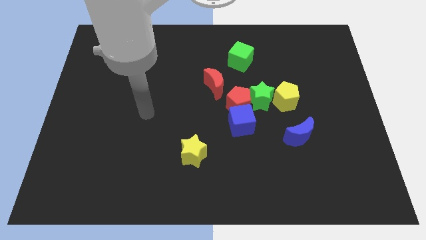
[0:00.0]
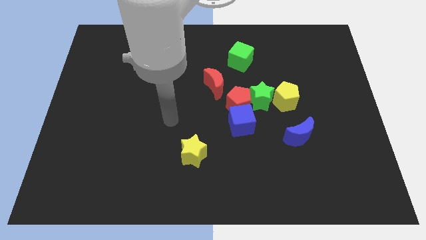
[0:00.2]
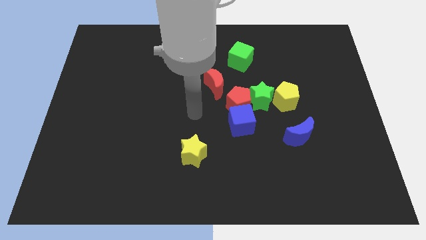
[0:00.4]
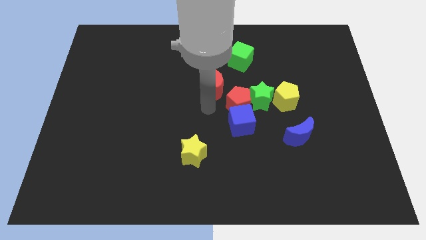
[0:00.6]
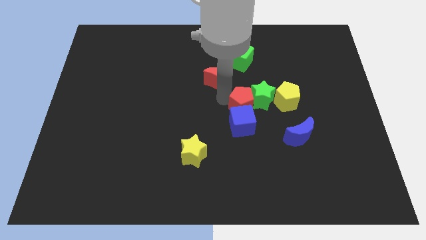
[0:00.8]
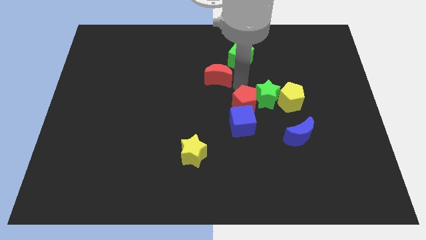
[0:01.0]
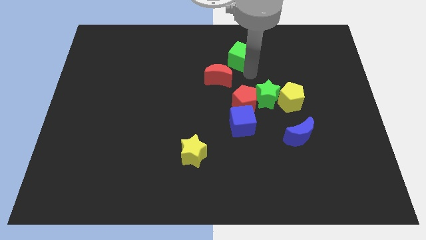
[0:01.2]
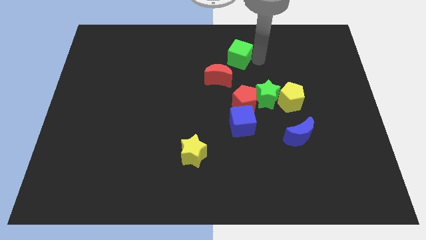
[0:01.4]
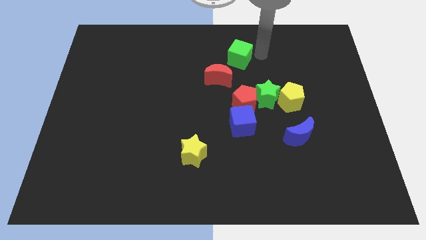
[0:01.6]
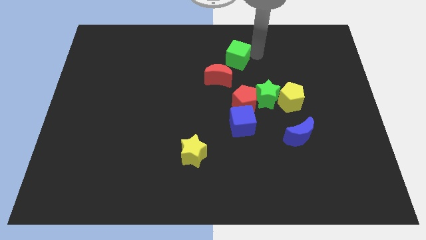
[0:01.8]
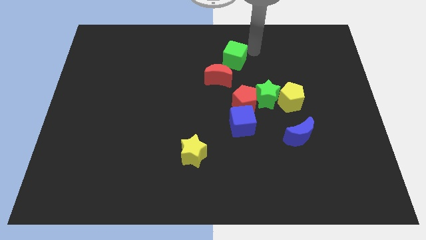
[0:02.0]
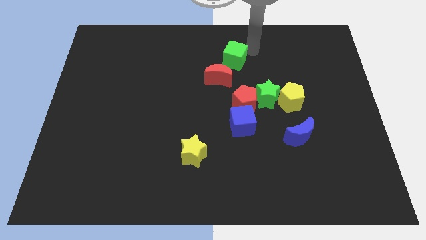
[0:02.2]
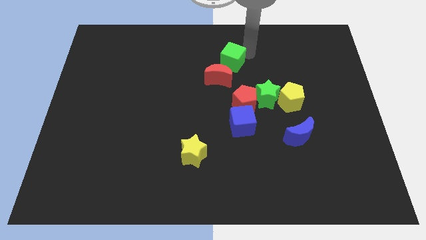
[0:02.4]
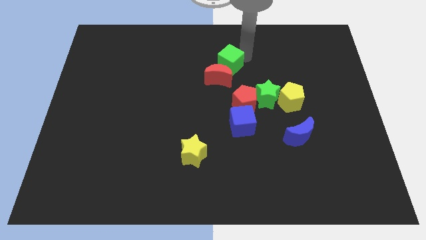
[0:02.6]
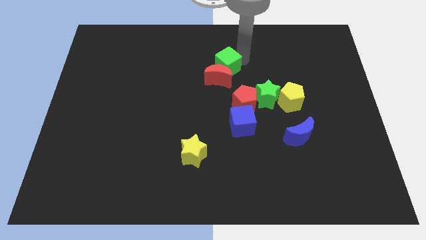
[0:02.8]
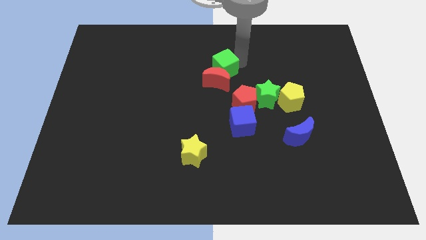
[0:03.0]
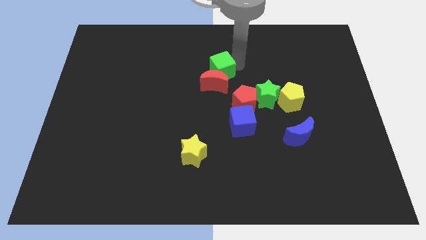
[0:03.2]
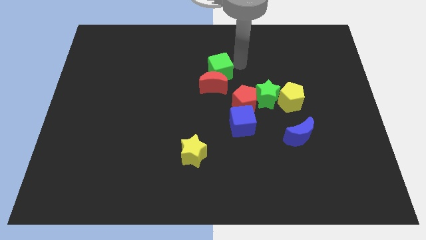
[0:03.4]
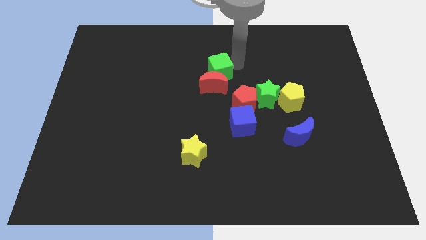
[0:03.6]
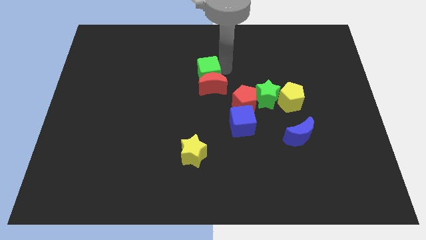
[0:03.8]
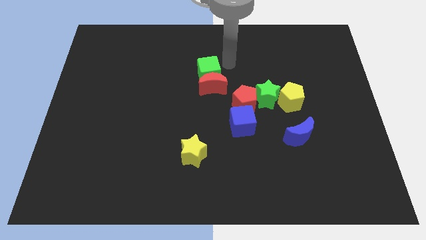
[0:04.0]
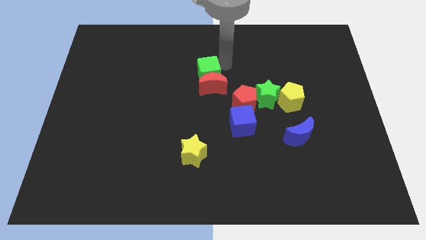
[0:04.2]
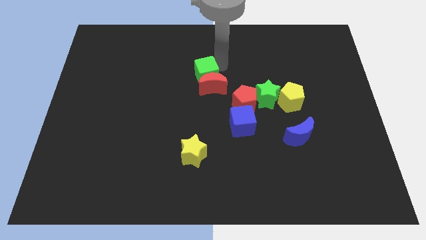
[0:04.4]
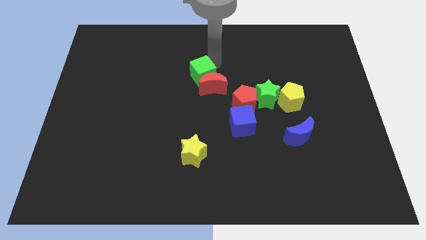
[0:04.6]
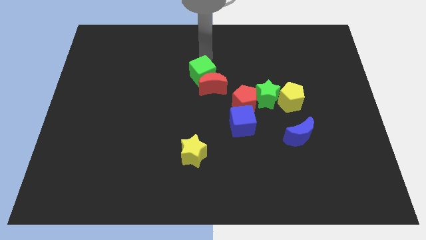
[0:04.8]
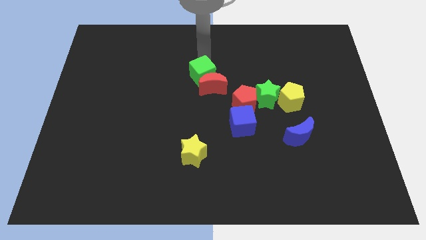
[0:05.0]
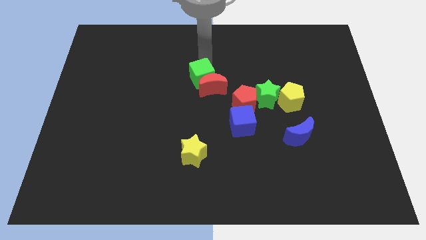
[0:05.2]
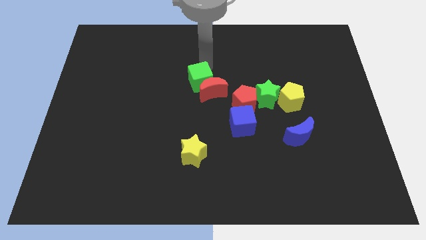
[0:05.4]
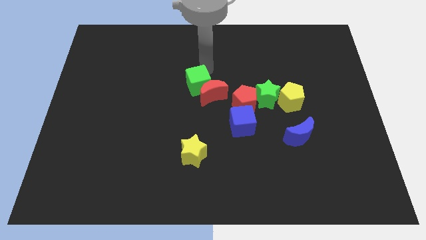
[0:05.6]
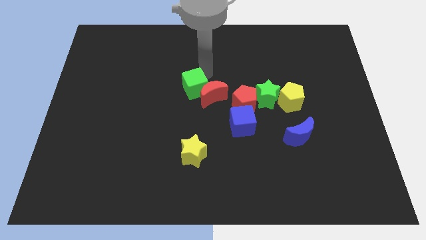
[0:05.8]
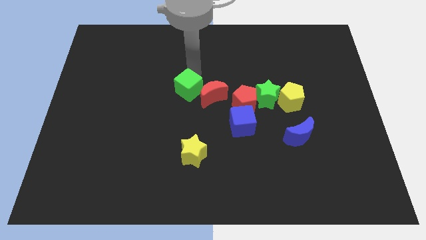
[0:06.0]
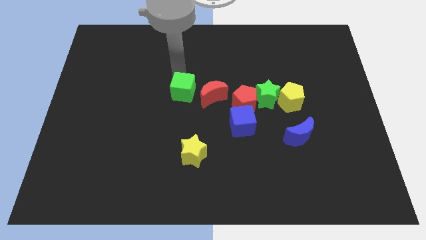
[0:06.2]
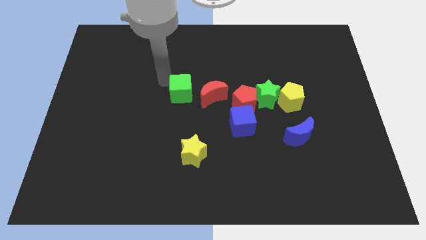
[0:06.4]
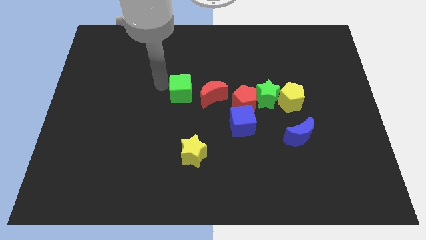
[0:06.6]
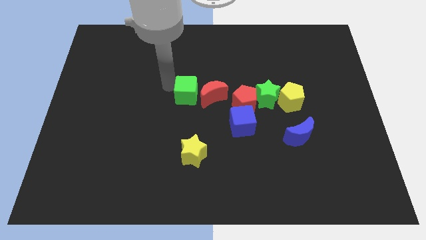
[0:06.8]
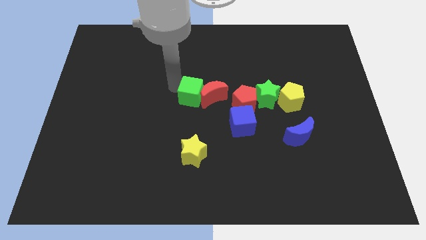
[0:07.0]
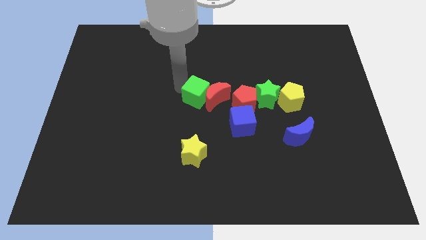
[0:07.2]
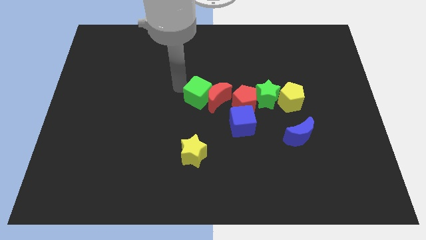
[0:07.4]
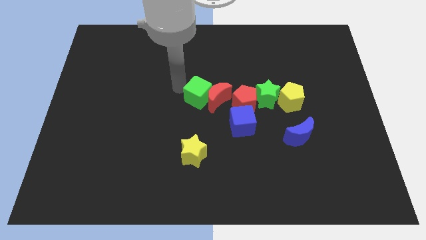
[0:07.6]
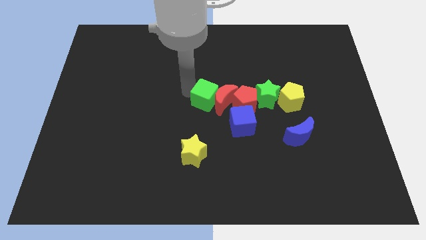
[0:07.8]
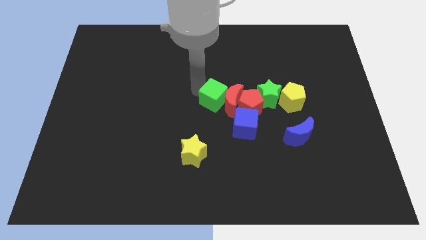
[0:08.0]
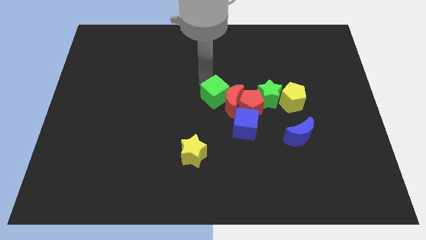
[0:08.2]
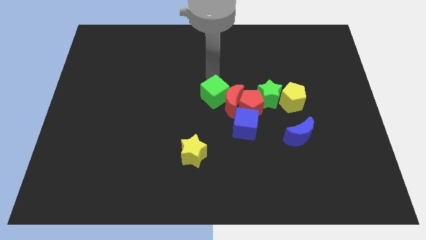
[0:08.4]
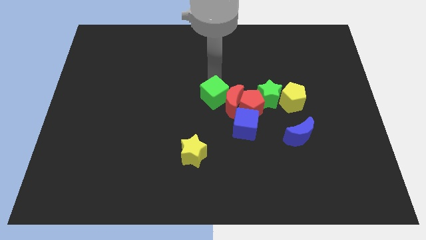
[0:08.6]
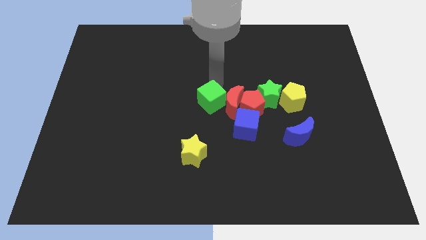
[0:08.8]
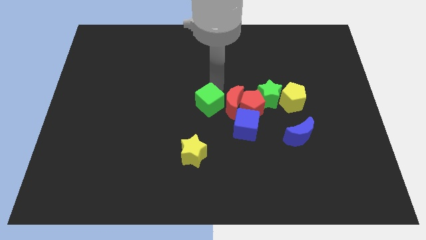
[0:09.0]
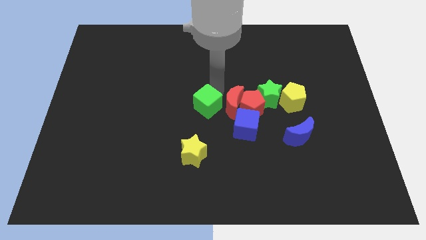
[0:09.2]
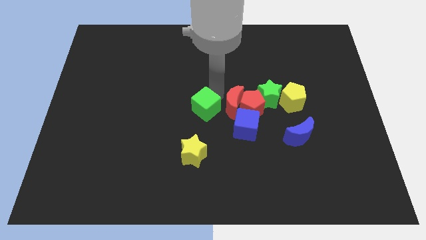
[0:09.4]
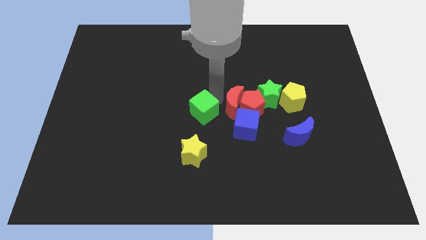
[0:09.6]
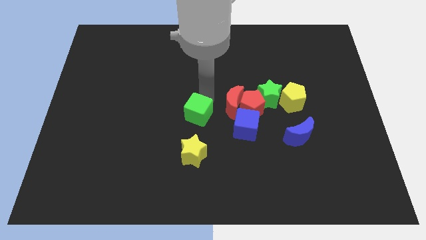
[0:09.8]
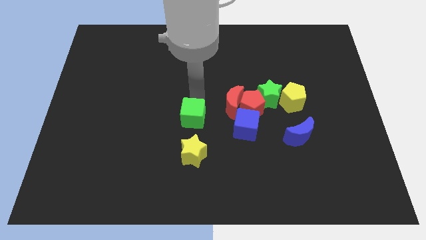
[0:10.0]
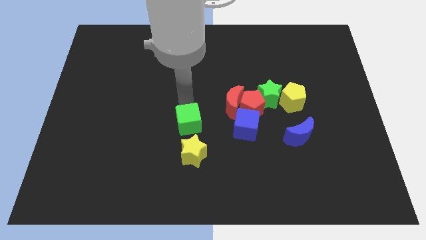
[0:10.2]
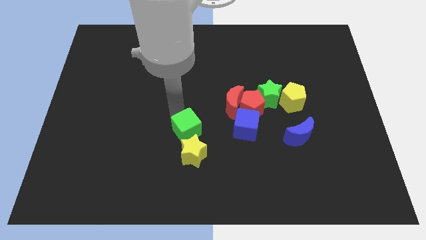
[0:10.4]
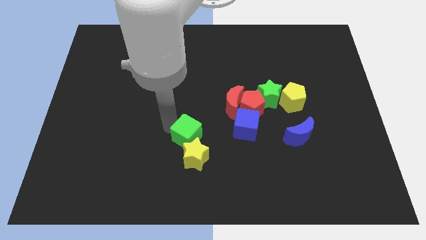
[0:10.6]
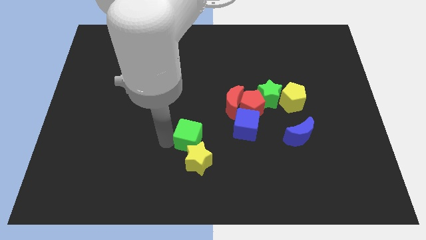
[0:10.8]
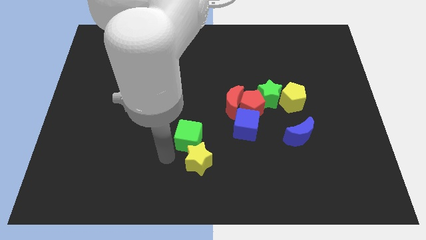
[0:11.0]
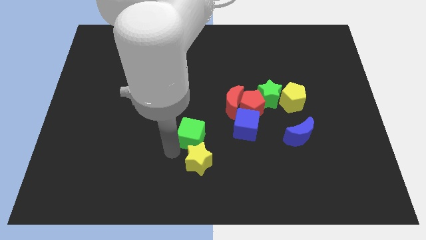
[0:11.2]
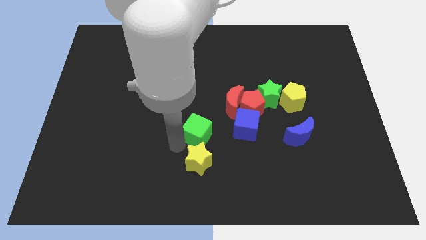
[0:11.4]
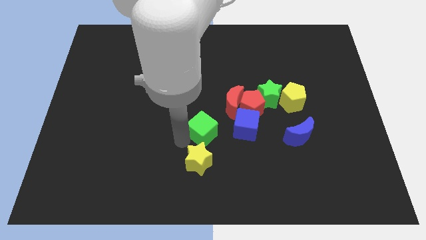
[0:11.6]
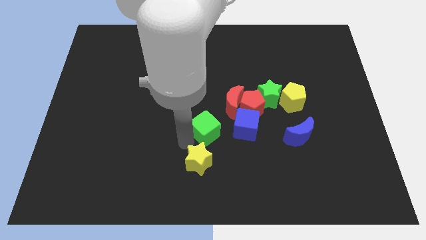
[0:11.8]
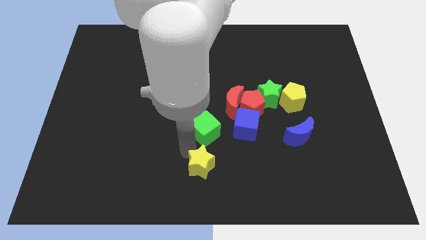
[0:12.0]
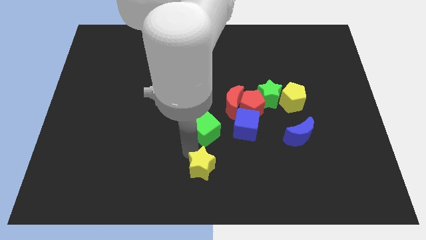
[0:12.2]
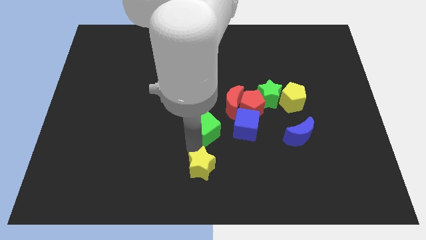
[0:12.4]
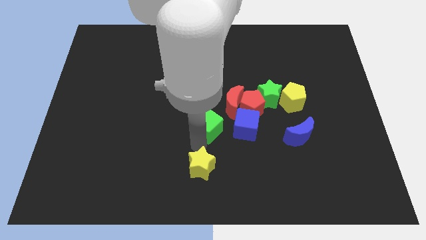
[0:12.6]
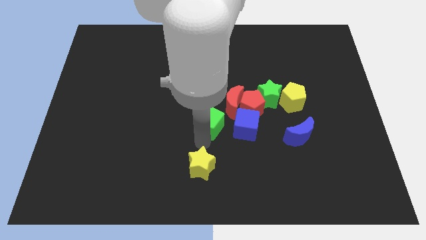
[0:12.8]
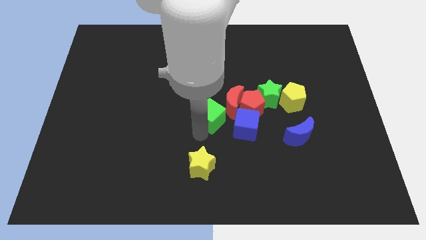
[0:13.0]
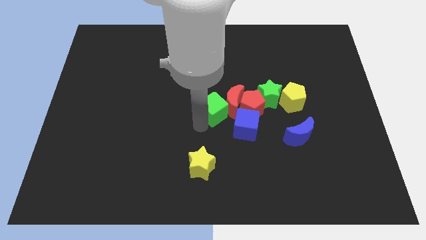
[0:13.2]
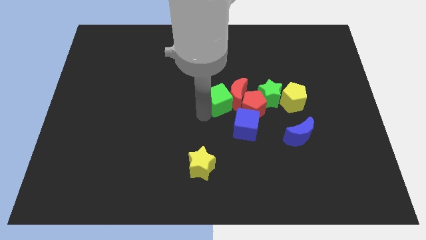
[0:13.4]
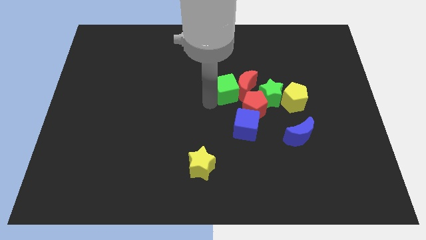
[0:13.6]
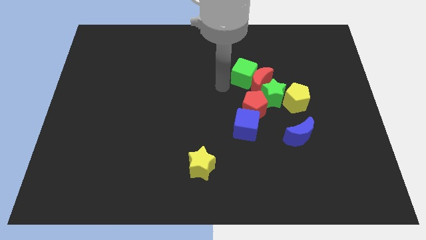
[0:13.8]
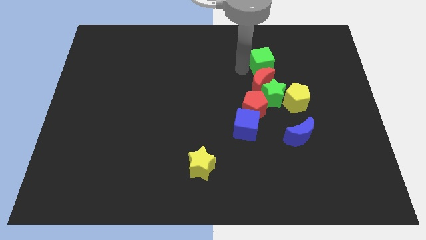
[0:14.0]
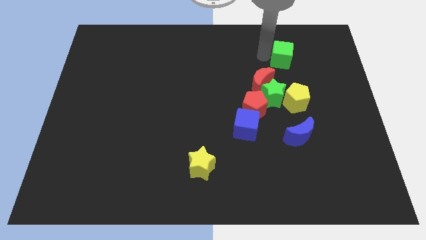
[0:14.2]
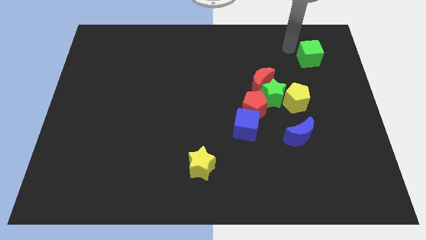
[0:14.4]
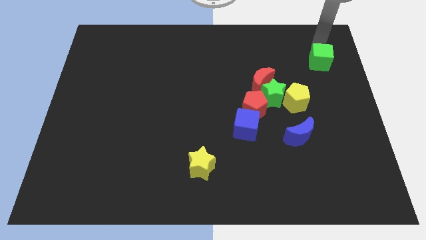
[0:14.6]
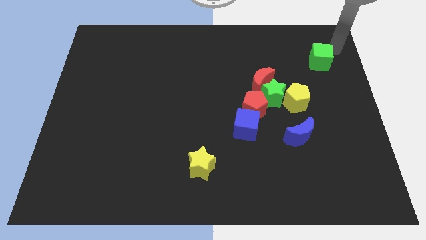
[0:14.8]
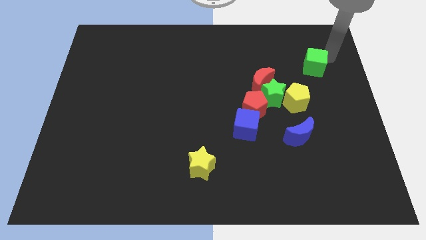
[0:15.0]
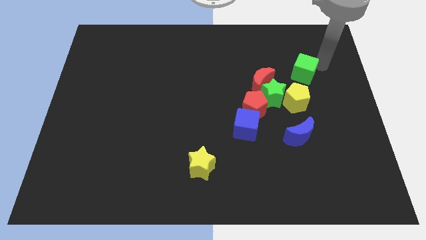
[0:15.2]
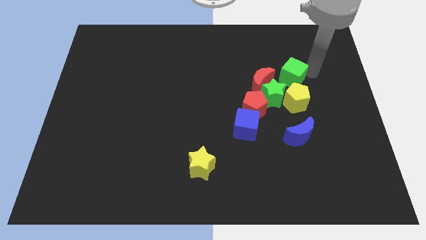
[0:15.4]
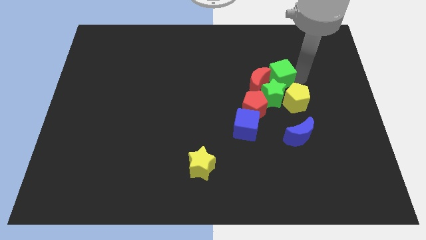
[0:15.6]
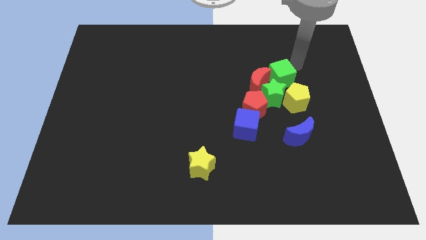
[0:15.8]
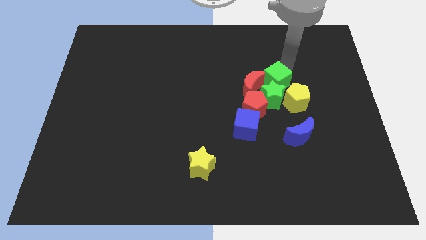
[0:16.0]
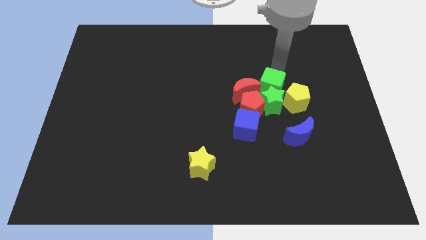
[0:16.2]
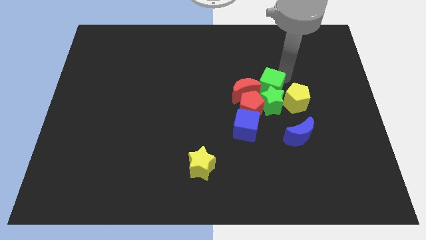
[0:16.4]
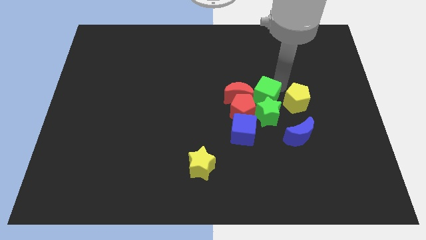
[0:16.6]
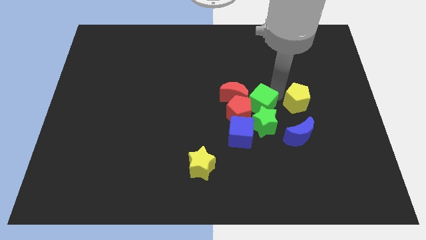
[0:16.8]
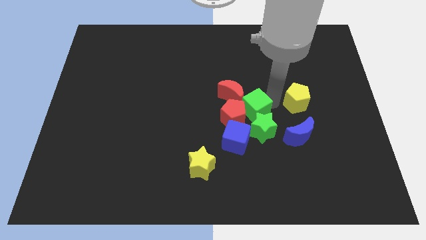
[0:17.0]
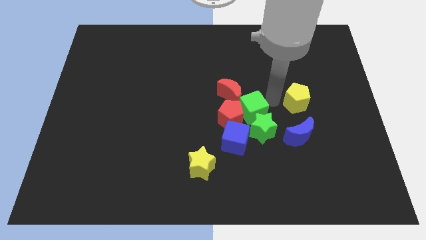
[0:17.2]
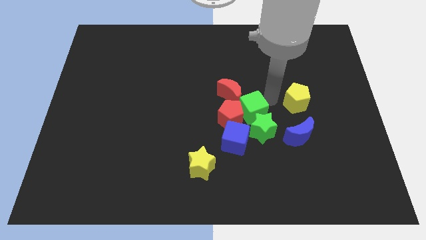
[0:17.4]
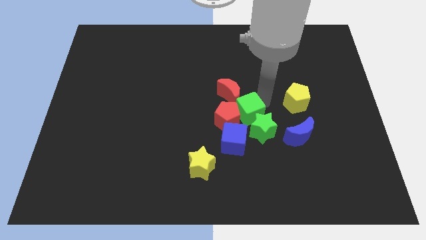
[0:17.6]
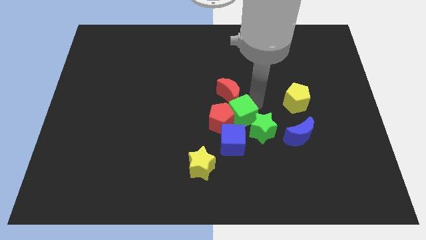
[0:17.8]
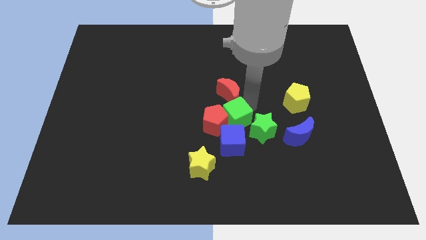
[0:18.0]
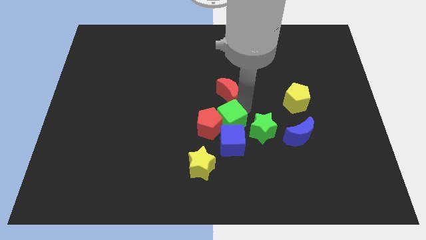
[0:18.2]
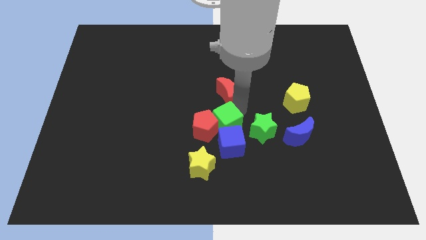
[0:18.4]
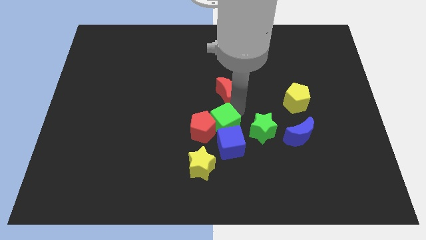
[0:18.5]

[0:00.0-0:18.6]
push the green cube down
